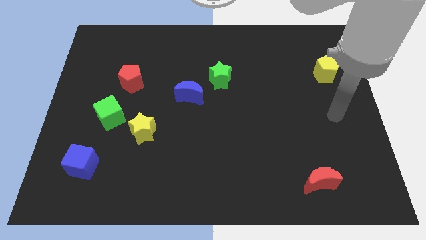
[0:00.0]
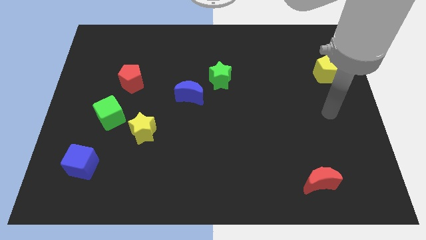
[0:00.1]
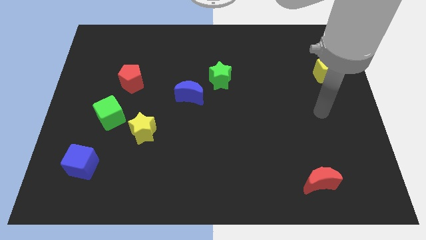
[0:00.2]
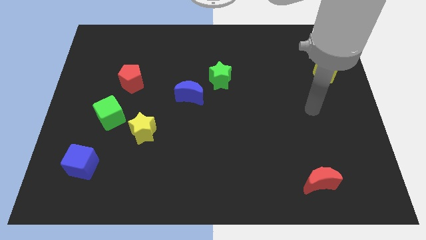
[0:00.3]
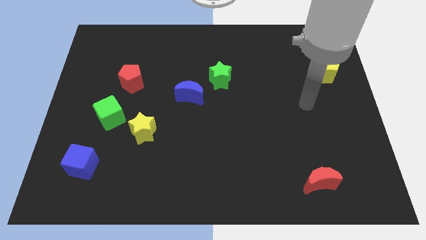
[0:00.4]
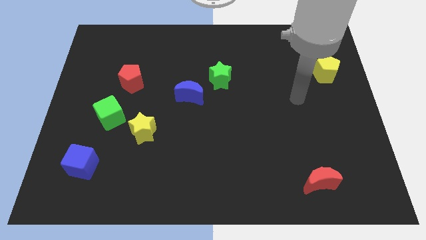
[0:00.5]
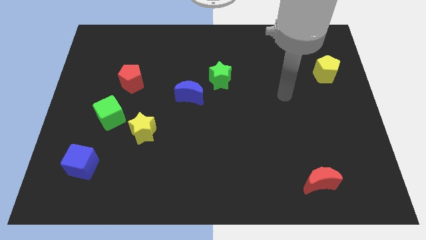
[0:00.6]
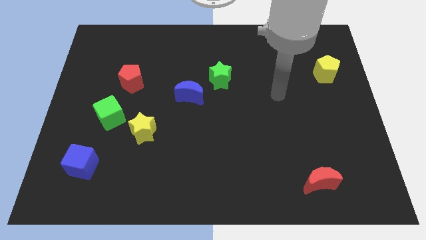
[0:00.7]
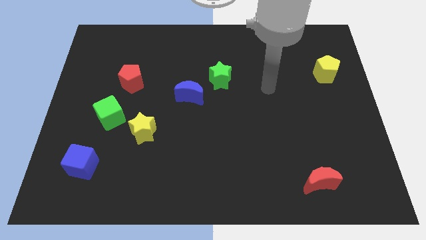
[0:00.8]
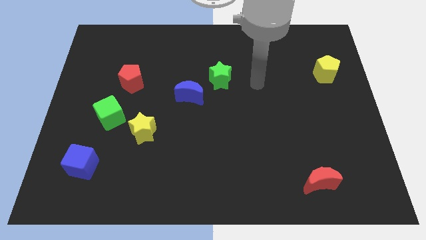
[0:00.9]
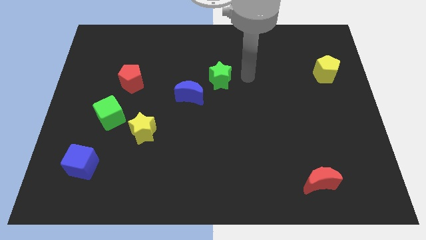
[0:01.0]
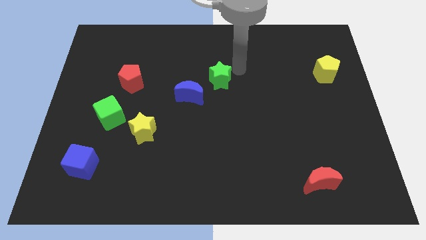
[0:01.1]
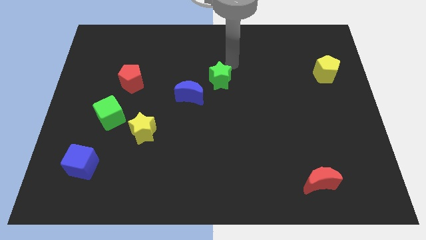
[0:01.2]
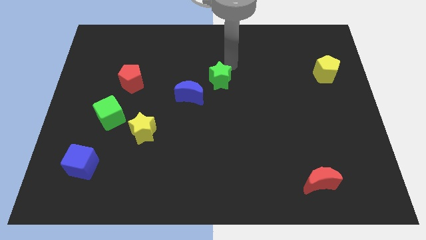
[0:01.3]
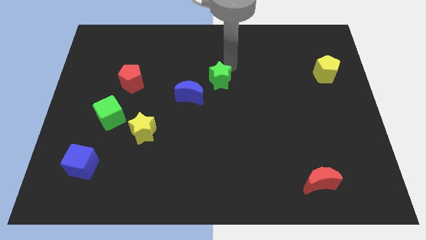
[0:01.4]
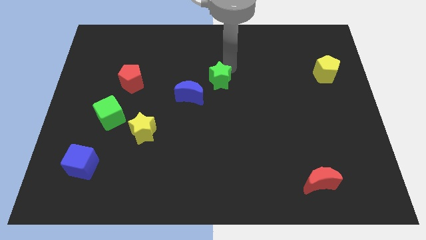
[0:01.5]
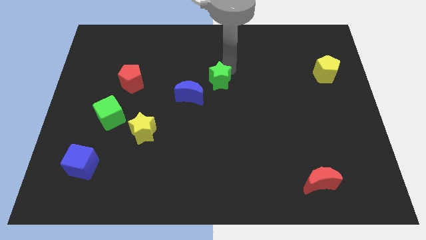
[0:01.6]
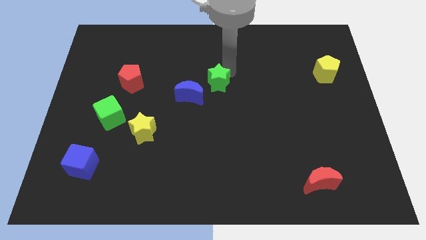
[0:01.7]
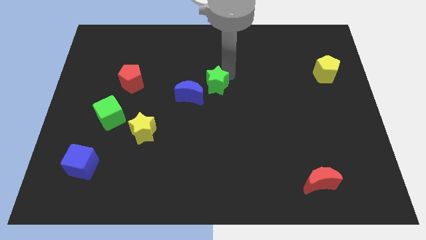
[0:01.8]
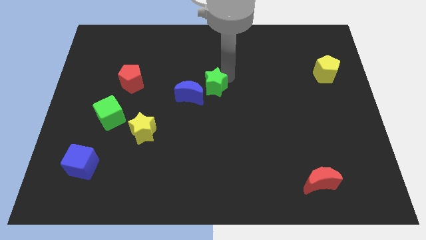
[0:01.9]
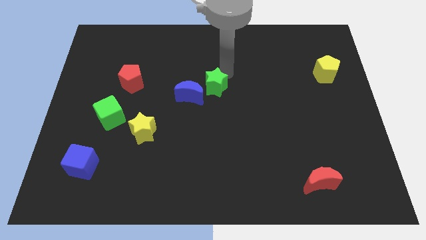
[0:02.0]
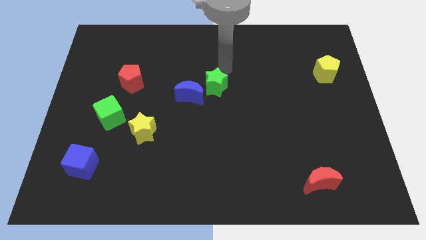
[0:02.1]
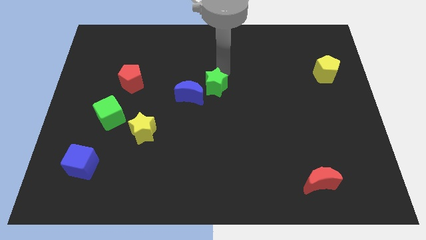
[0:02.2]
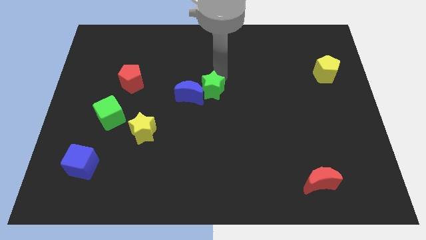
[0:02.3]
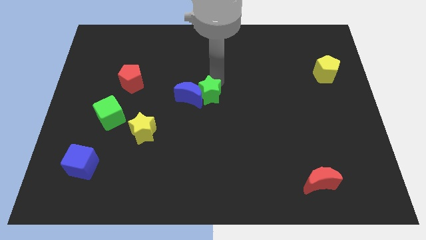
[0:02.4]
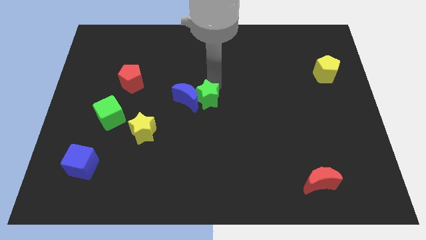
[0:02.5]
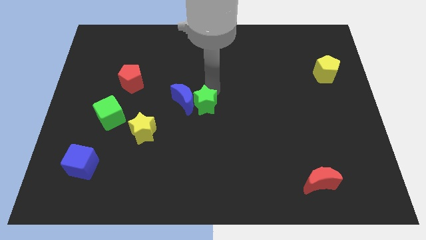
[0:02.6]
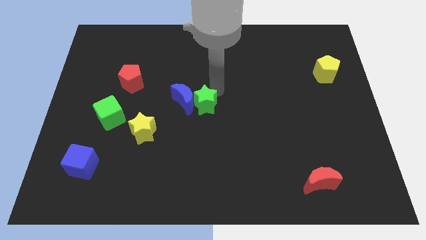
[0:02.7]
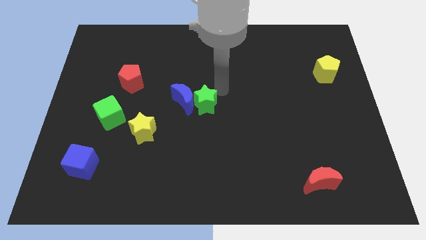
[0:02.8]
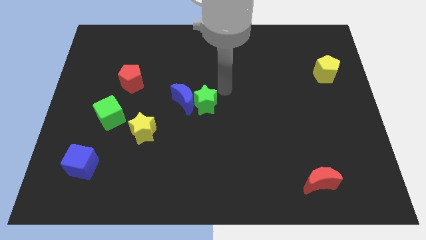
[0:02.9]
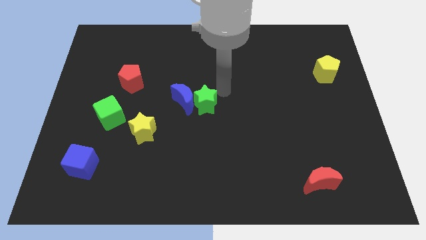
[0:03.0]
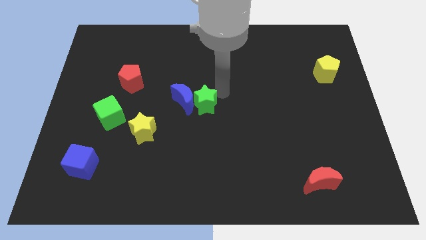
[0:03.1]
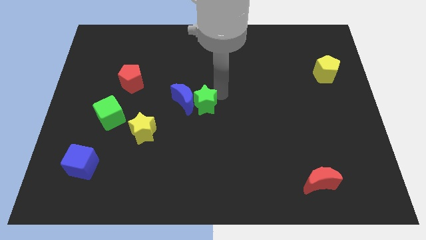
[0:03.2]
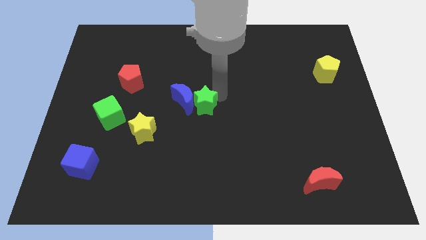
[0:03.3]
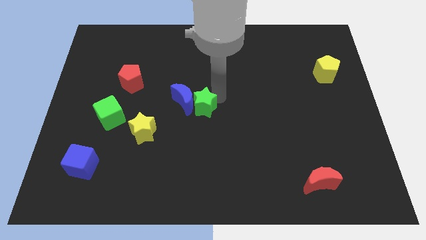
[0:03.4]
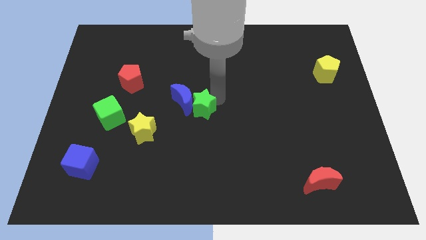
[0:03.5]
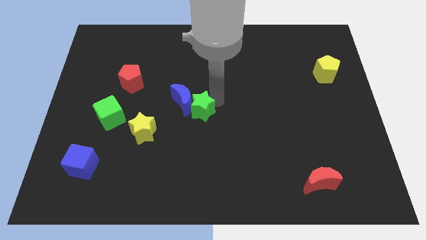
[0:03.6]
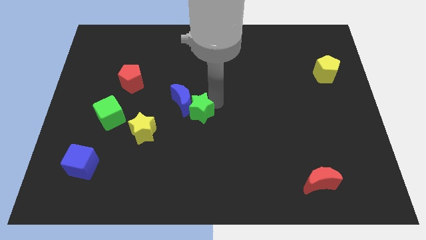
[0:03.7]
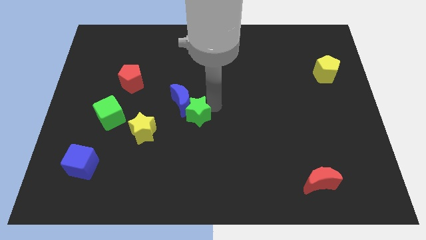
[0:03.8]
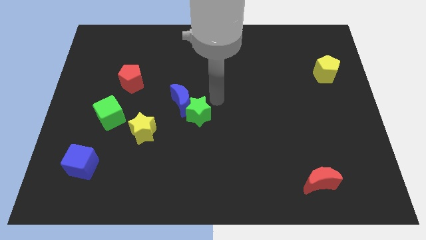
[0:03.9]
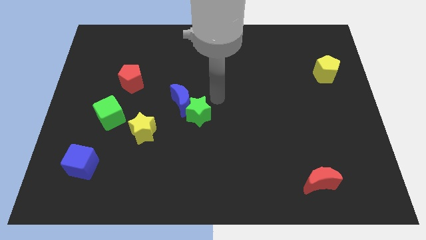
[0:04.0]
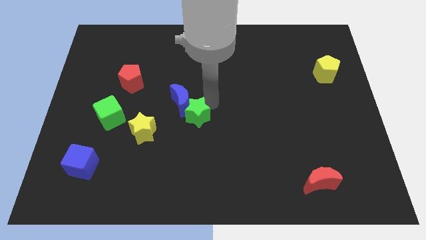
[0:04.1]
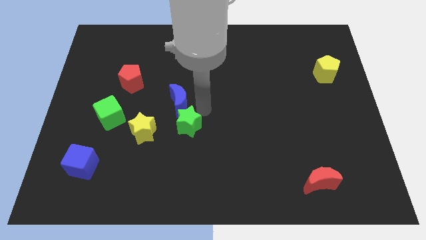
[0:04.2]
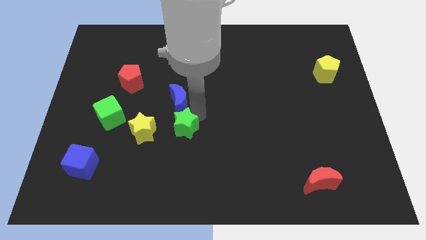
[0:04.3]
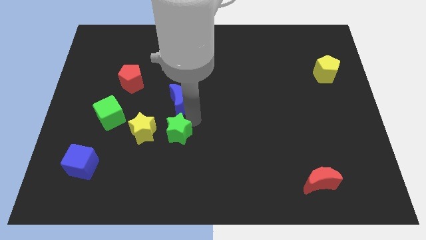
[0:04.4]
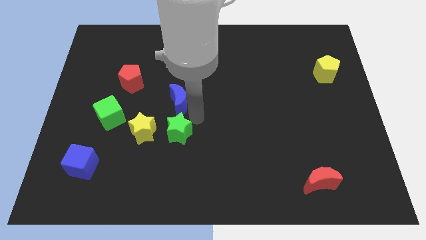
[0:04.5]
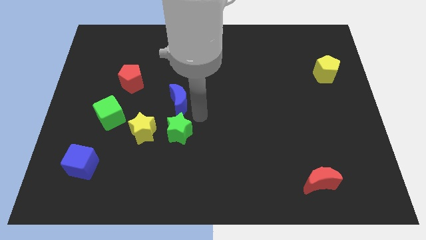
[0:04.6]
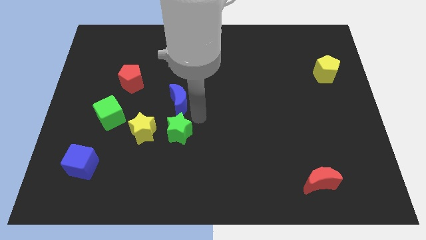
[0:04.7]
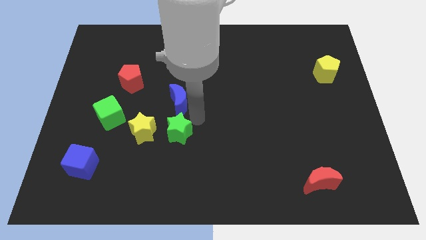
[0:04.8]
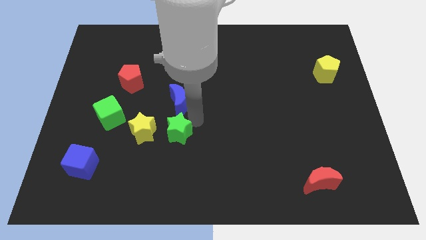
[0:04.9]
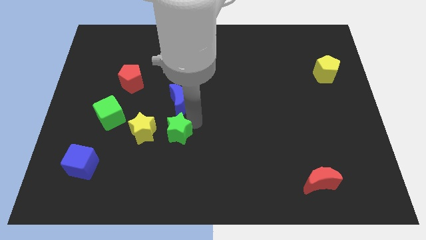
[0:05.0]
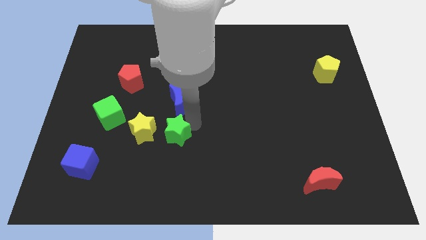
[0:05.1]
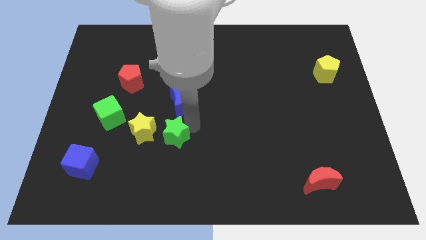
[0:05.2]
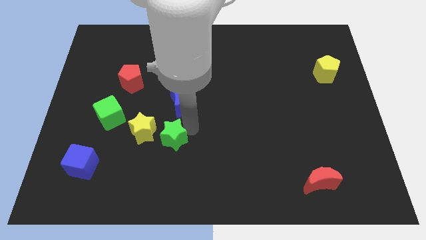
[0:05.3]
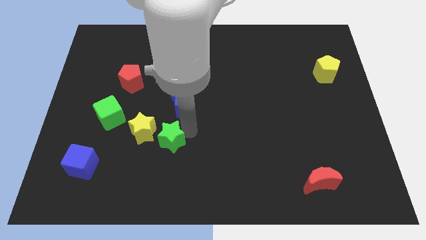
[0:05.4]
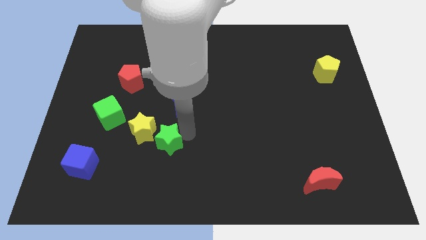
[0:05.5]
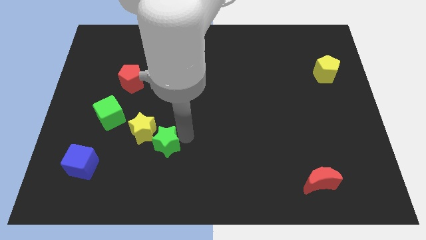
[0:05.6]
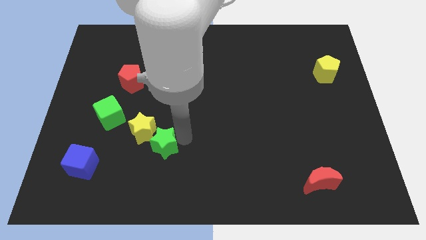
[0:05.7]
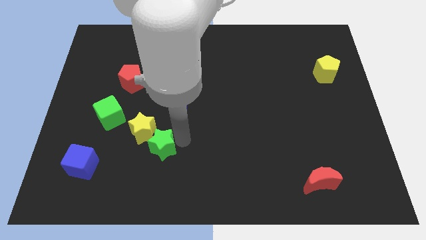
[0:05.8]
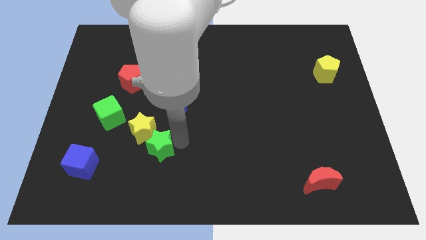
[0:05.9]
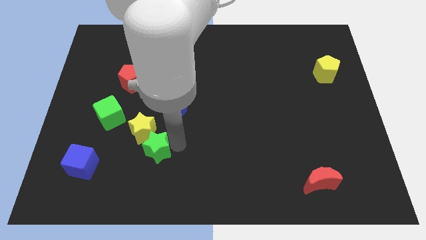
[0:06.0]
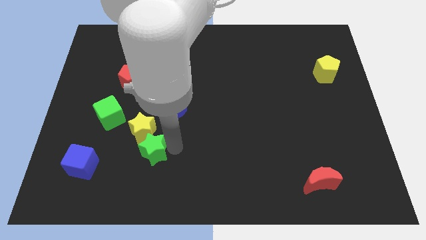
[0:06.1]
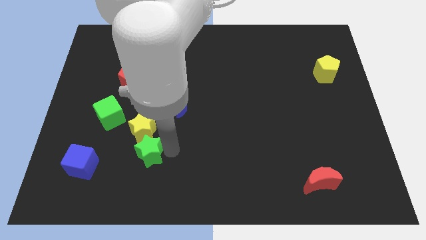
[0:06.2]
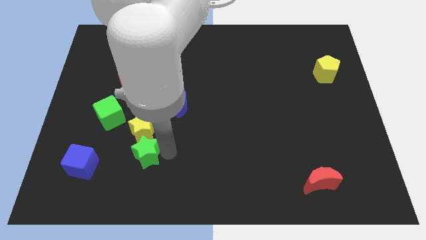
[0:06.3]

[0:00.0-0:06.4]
slide the green star diagonally down and to the left of the yellow star
